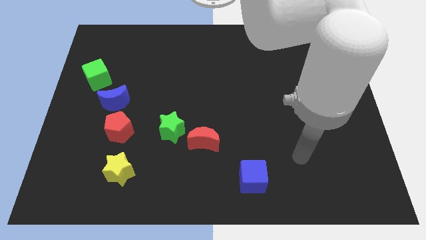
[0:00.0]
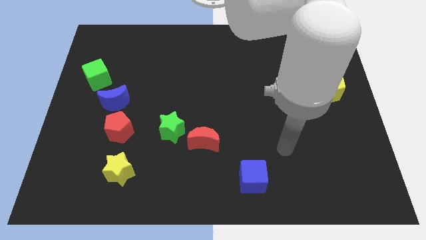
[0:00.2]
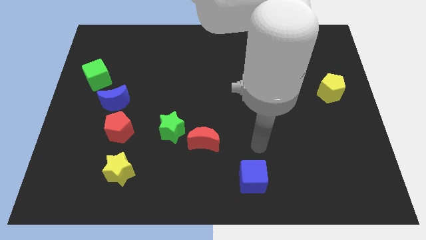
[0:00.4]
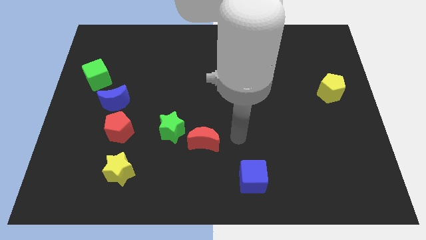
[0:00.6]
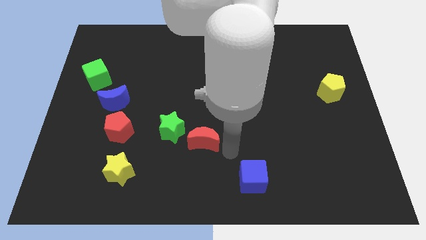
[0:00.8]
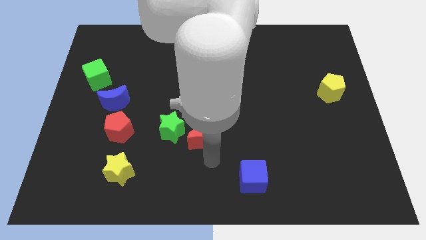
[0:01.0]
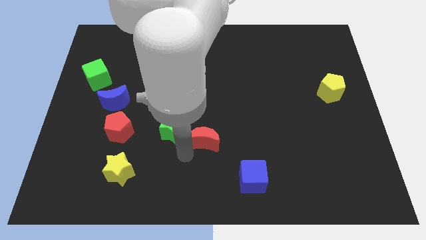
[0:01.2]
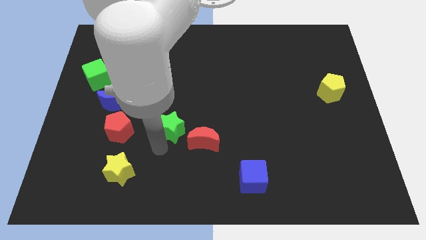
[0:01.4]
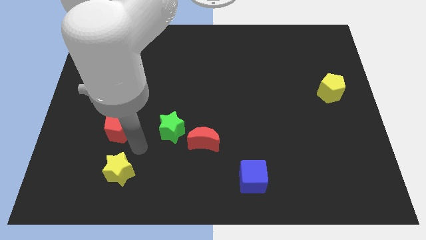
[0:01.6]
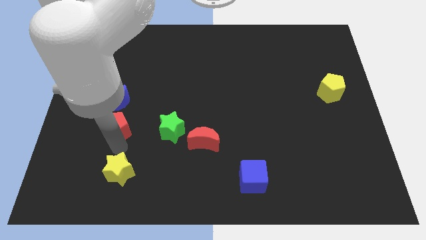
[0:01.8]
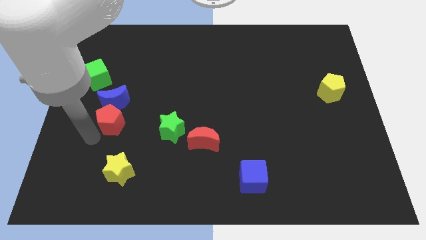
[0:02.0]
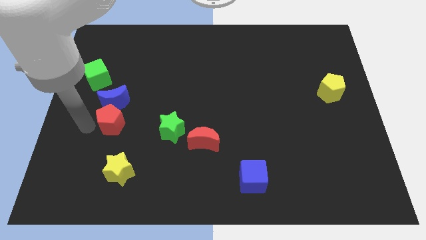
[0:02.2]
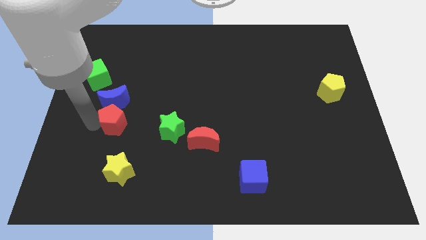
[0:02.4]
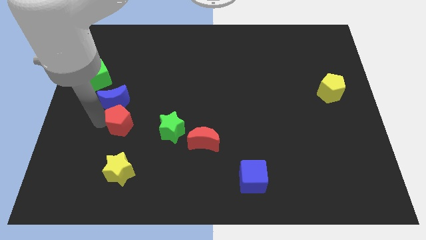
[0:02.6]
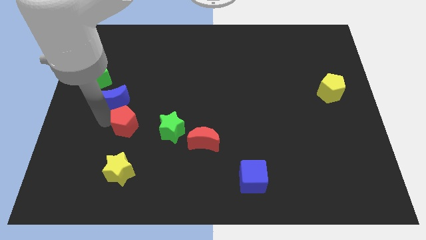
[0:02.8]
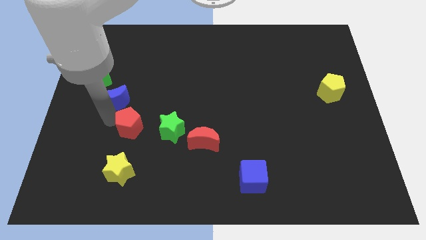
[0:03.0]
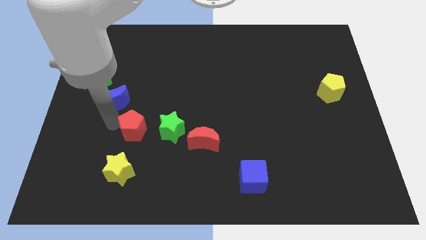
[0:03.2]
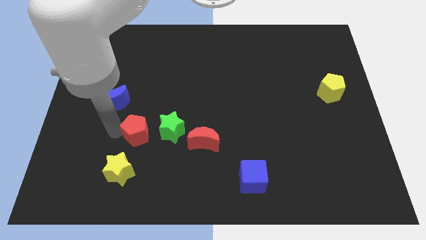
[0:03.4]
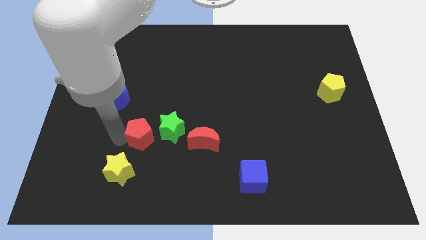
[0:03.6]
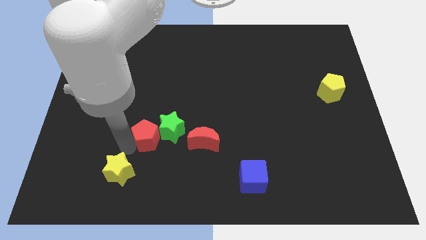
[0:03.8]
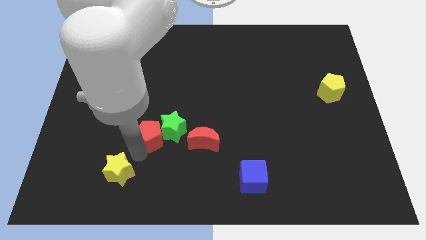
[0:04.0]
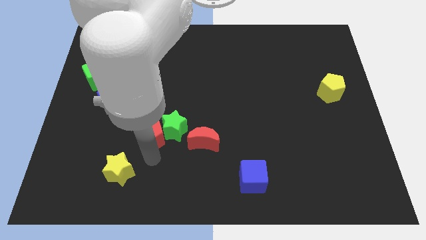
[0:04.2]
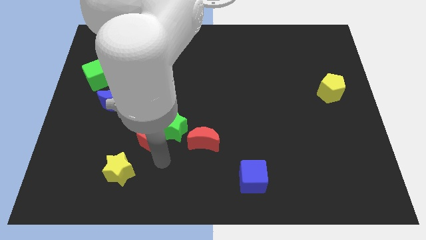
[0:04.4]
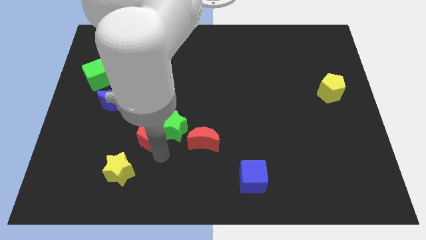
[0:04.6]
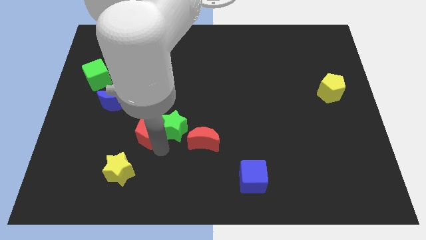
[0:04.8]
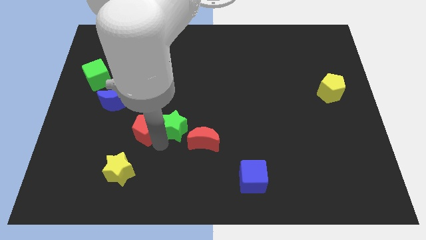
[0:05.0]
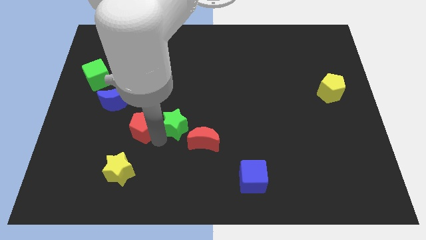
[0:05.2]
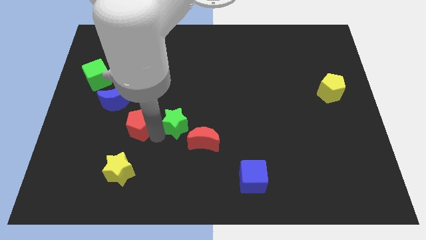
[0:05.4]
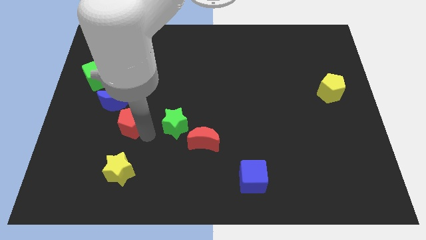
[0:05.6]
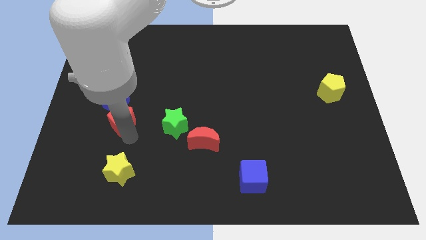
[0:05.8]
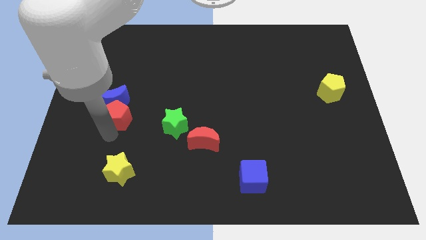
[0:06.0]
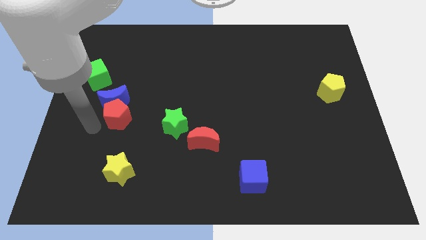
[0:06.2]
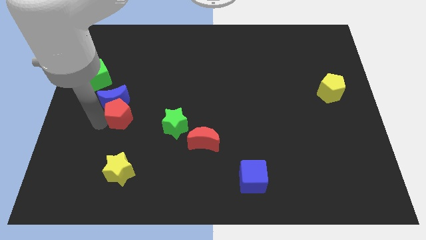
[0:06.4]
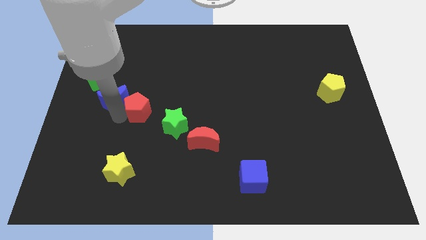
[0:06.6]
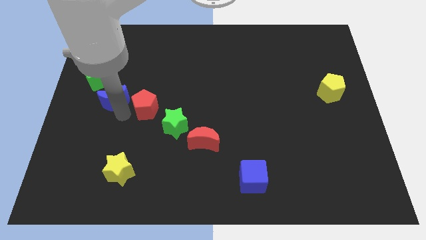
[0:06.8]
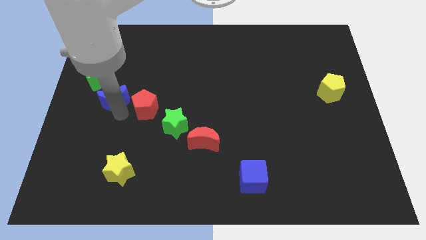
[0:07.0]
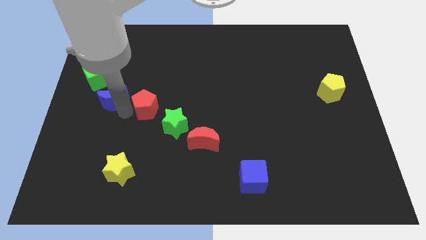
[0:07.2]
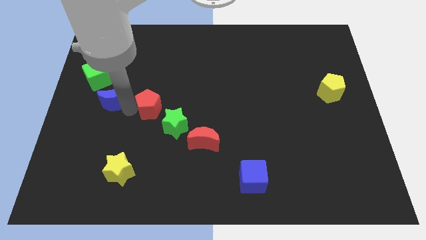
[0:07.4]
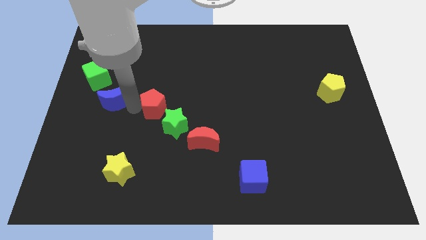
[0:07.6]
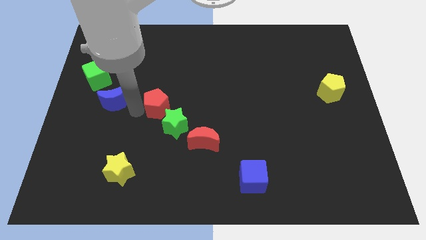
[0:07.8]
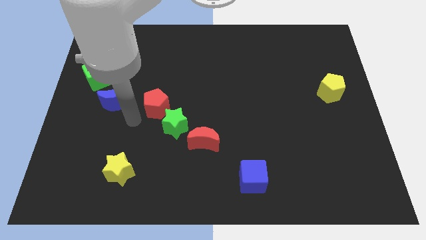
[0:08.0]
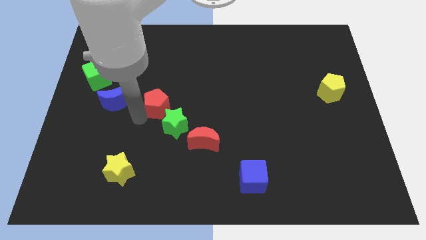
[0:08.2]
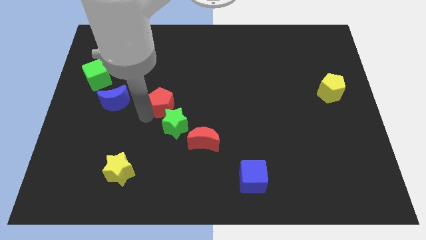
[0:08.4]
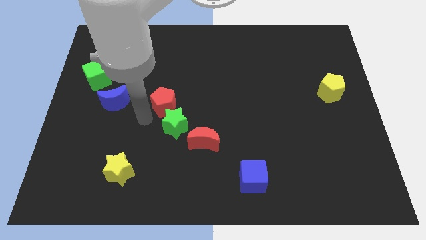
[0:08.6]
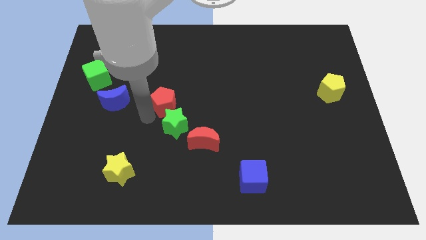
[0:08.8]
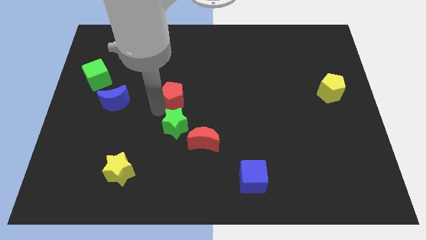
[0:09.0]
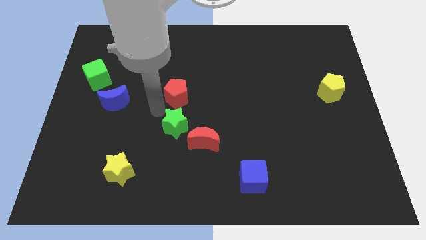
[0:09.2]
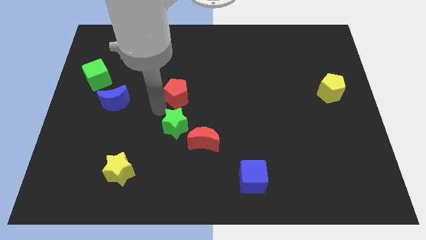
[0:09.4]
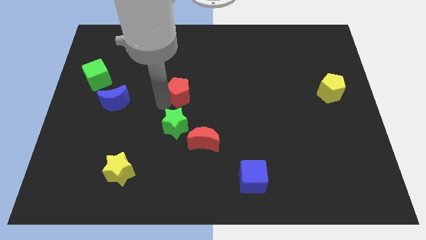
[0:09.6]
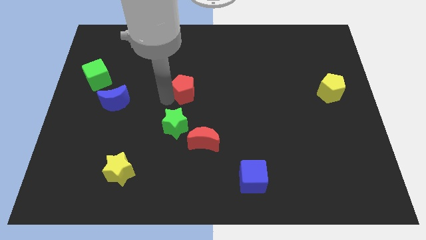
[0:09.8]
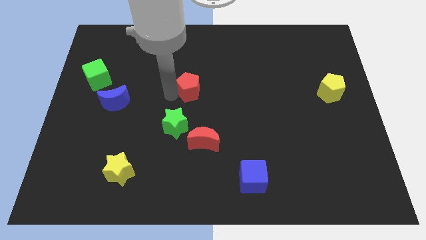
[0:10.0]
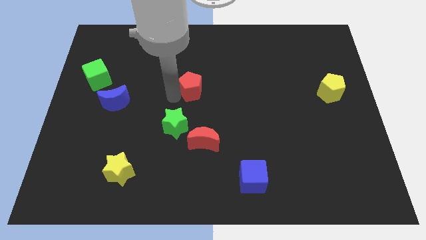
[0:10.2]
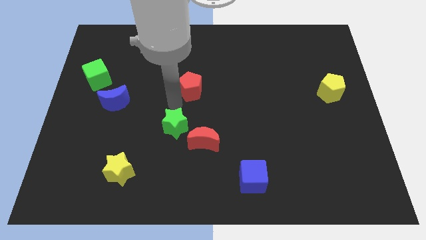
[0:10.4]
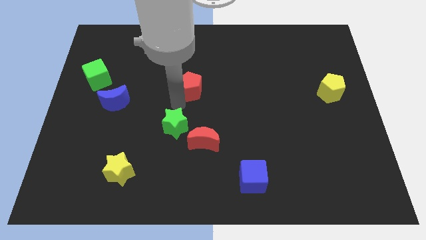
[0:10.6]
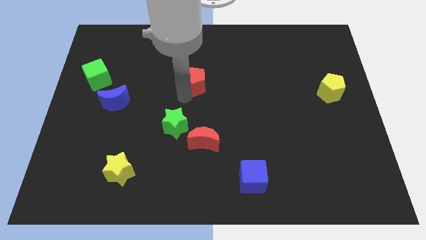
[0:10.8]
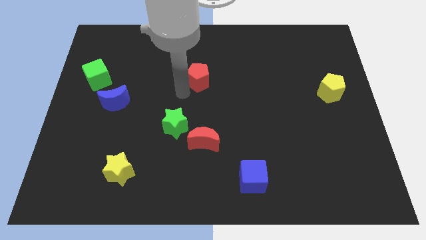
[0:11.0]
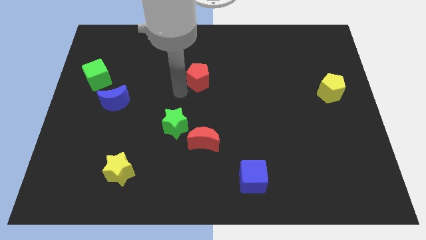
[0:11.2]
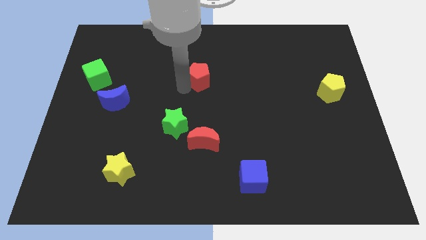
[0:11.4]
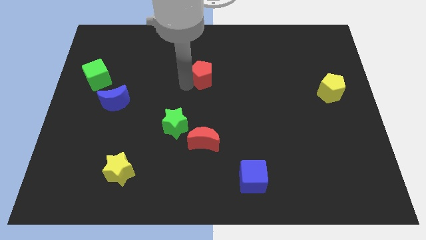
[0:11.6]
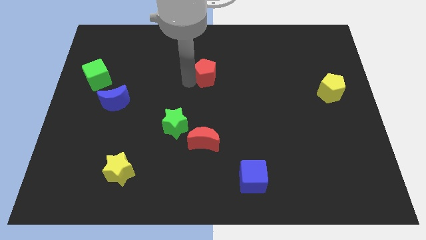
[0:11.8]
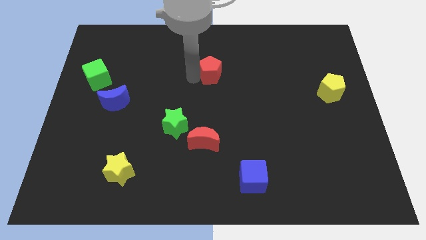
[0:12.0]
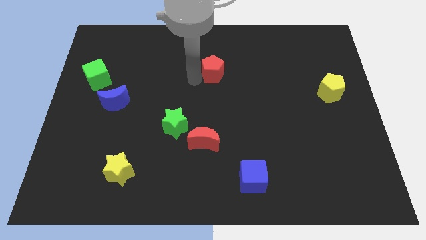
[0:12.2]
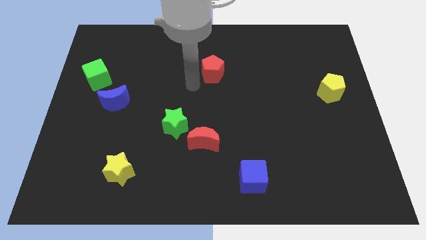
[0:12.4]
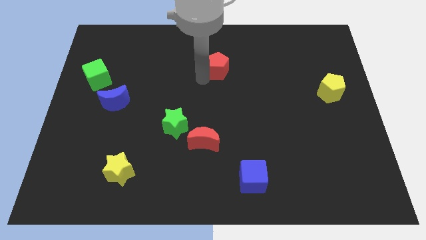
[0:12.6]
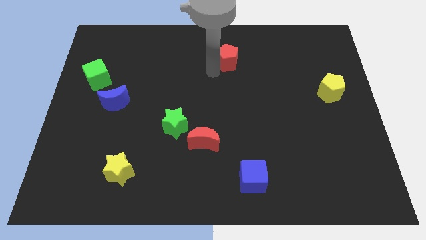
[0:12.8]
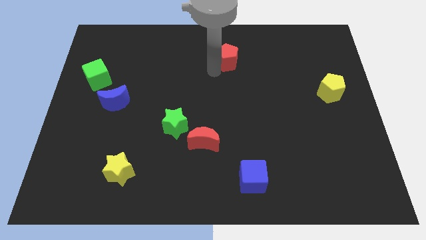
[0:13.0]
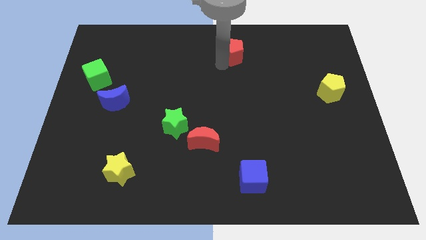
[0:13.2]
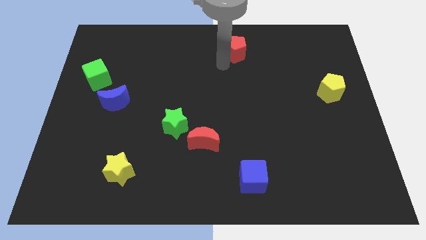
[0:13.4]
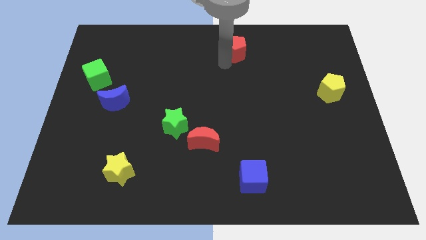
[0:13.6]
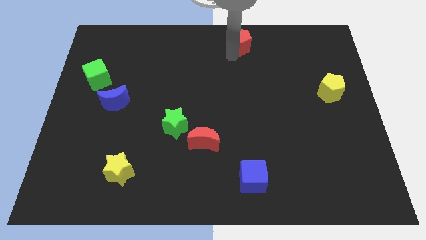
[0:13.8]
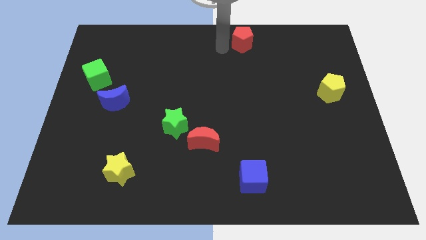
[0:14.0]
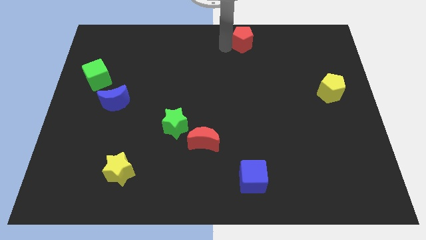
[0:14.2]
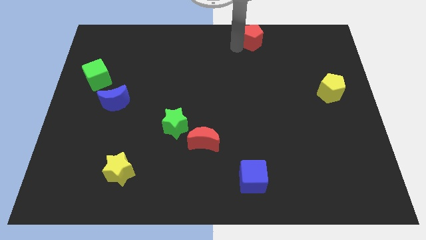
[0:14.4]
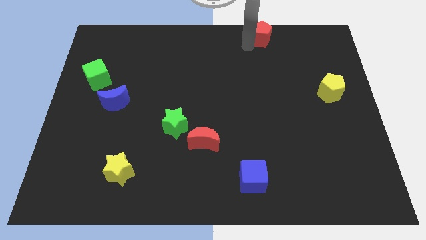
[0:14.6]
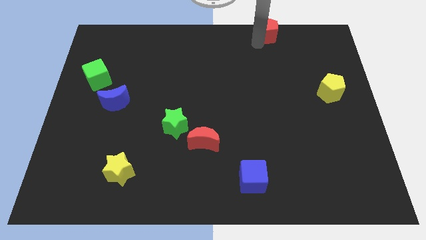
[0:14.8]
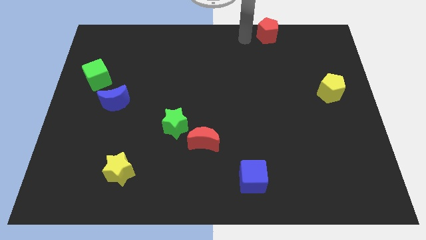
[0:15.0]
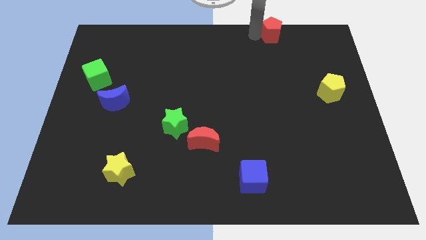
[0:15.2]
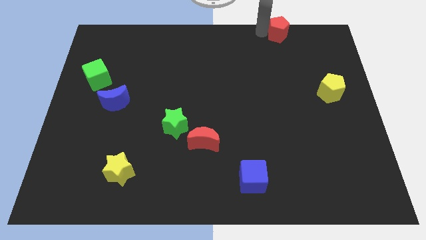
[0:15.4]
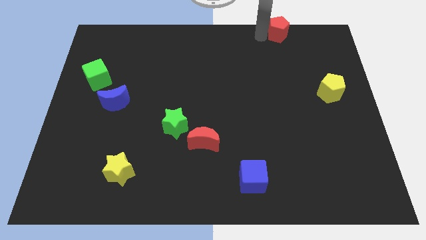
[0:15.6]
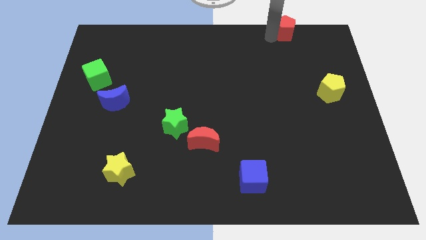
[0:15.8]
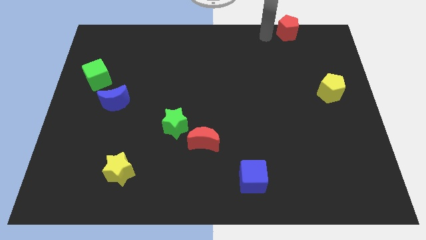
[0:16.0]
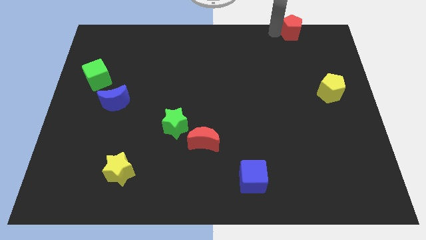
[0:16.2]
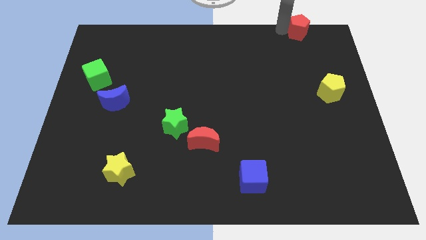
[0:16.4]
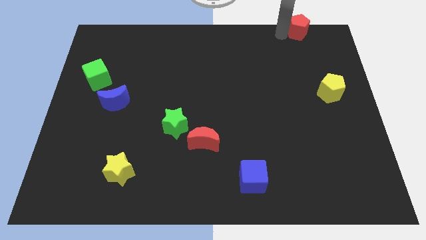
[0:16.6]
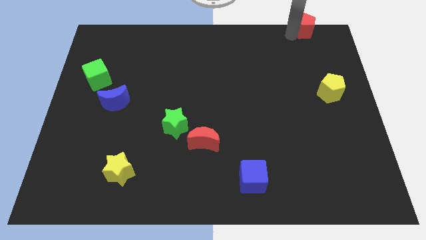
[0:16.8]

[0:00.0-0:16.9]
slide the red pentagon to the upper right corner
